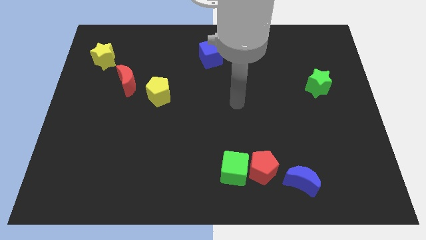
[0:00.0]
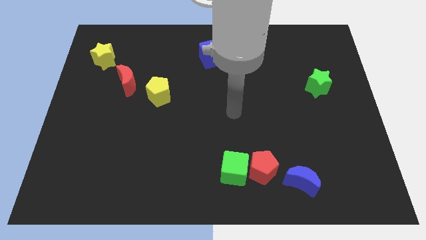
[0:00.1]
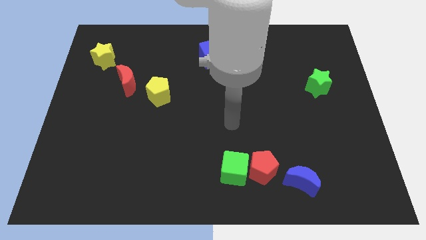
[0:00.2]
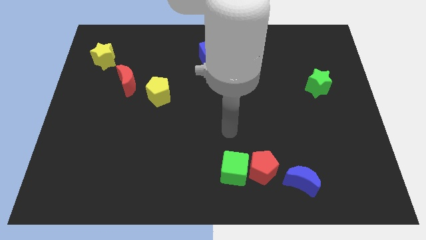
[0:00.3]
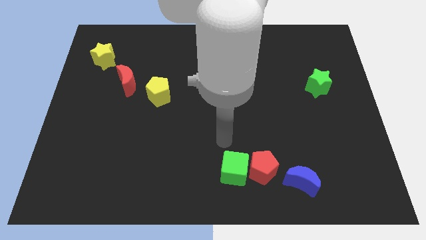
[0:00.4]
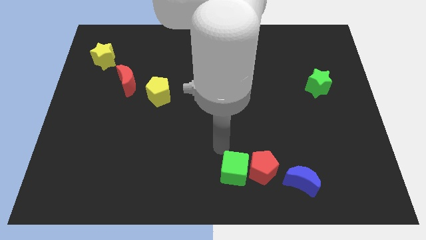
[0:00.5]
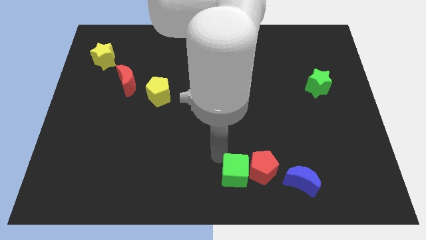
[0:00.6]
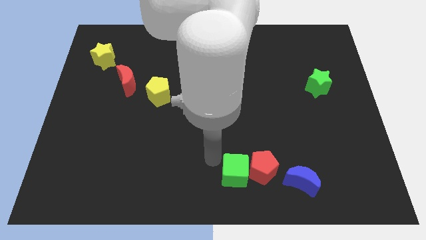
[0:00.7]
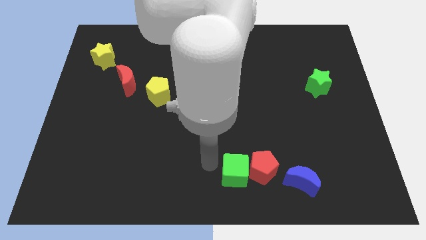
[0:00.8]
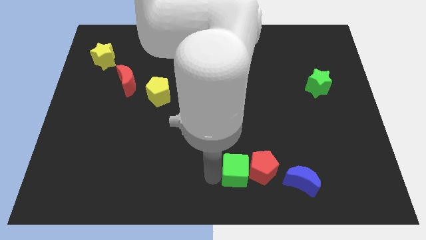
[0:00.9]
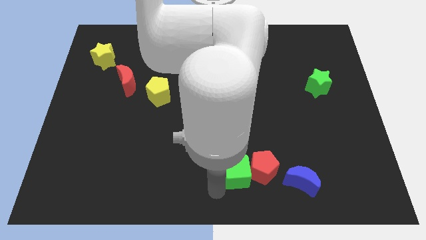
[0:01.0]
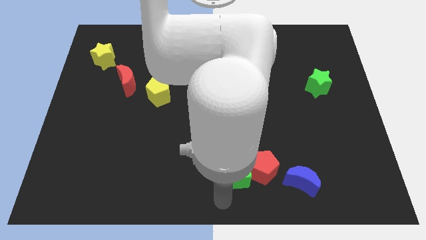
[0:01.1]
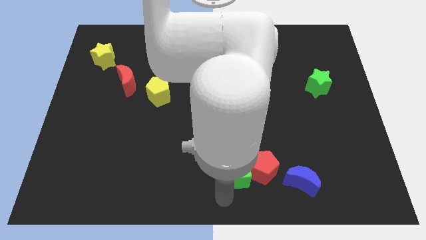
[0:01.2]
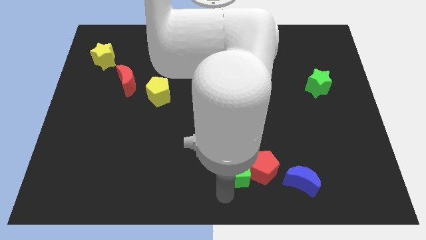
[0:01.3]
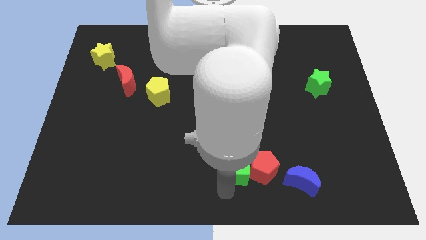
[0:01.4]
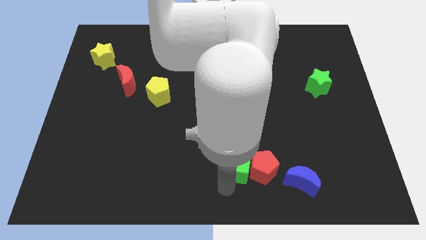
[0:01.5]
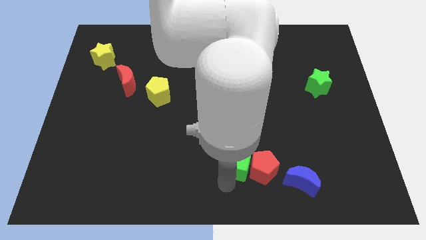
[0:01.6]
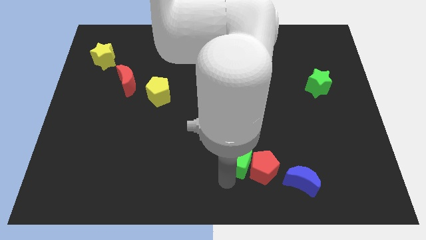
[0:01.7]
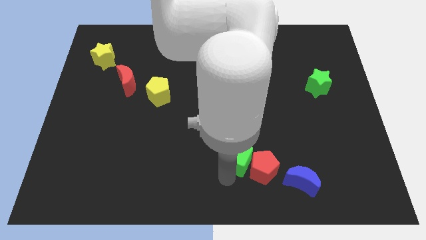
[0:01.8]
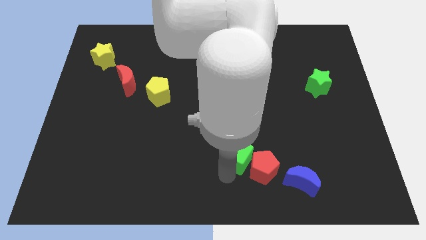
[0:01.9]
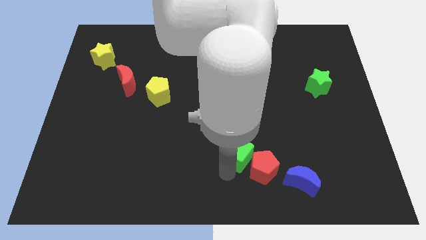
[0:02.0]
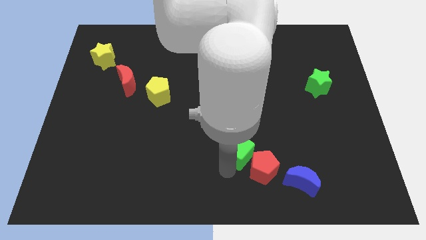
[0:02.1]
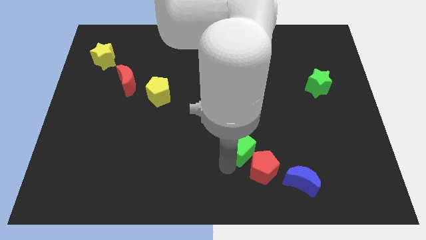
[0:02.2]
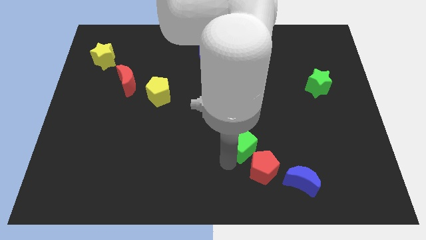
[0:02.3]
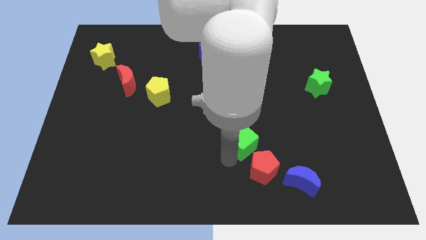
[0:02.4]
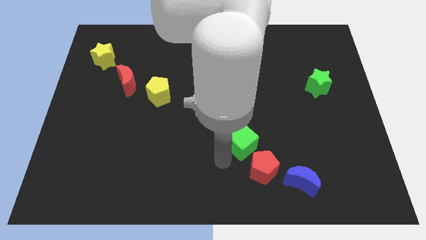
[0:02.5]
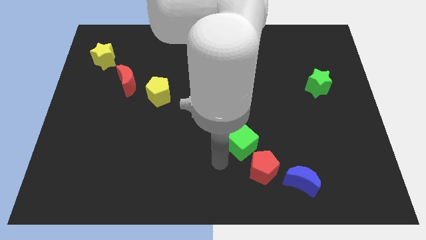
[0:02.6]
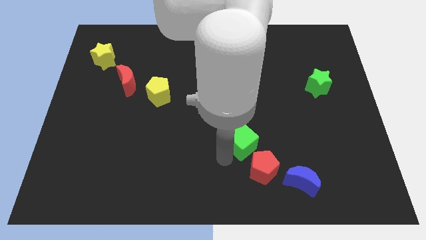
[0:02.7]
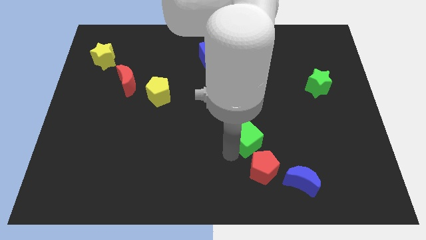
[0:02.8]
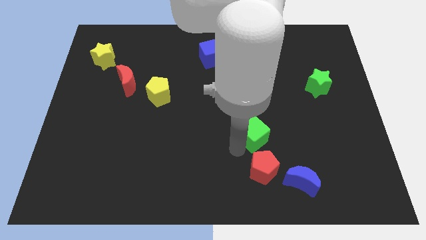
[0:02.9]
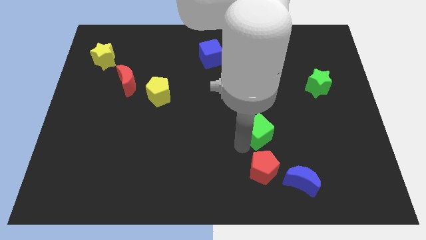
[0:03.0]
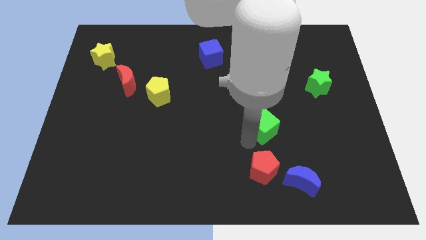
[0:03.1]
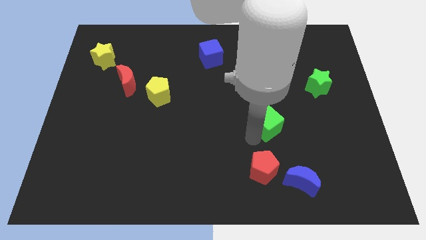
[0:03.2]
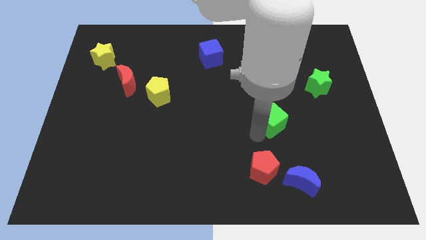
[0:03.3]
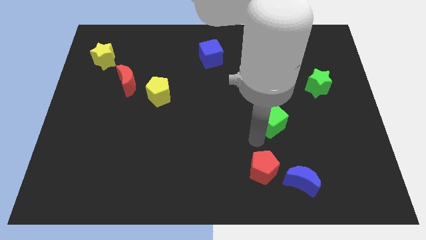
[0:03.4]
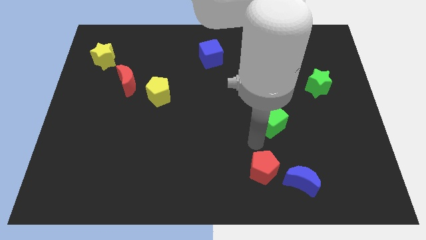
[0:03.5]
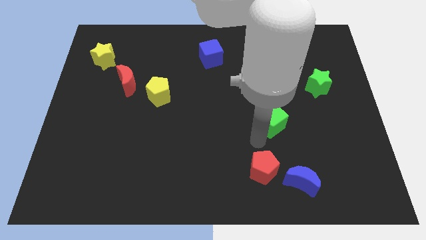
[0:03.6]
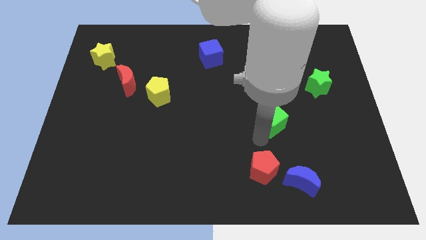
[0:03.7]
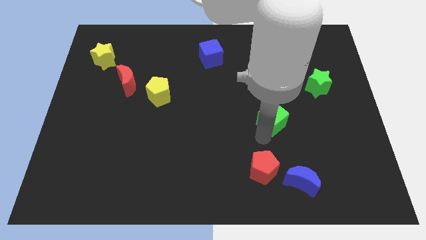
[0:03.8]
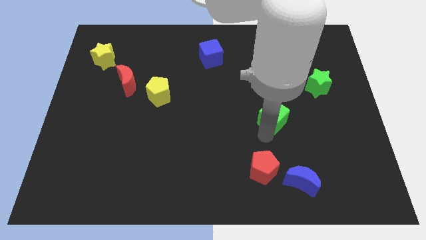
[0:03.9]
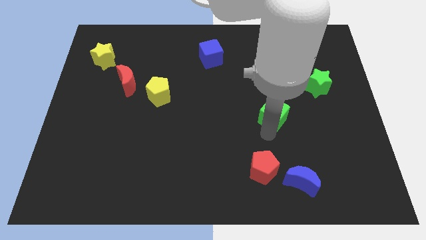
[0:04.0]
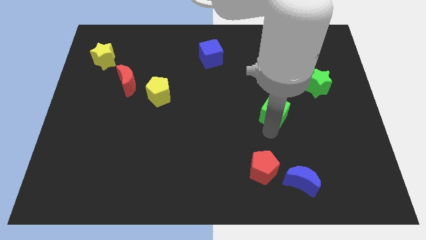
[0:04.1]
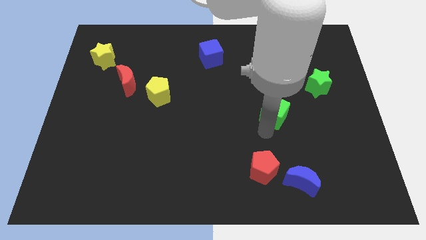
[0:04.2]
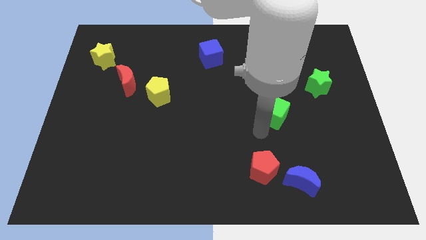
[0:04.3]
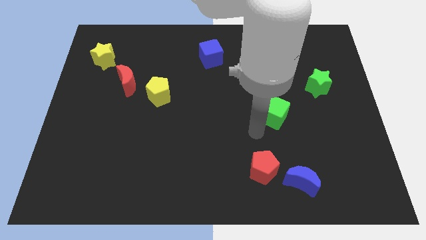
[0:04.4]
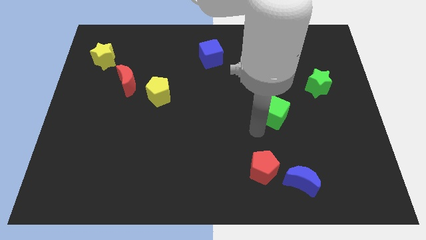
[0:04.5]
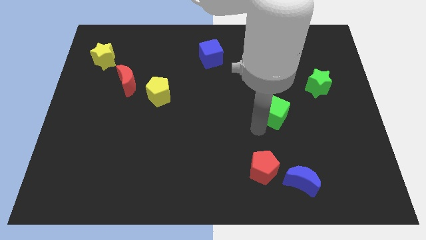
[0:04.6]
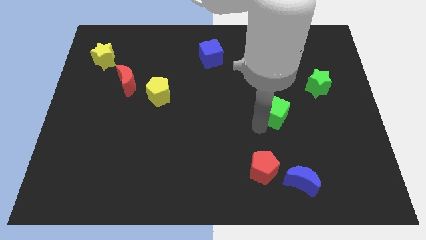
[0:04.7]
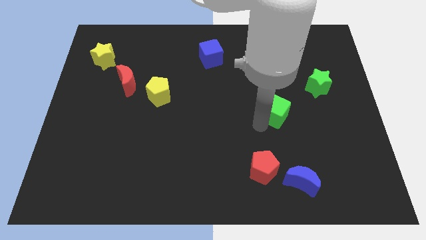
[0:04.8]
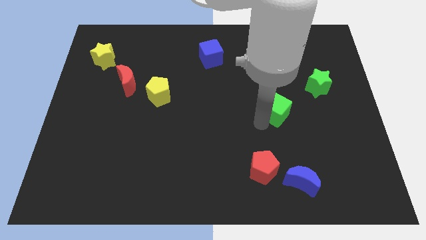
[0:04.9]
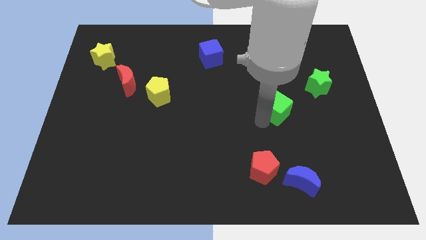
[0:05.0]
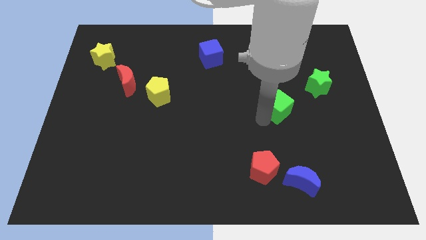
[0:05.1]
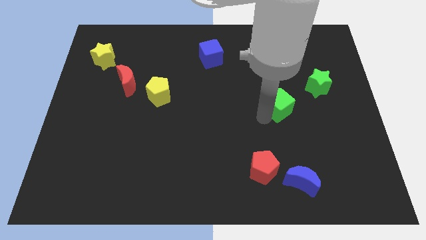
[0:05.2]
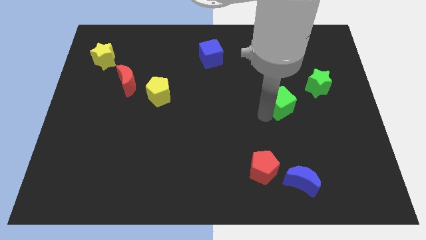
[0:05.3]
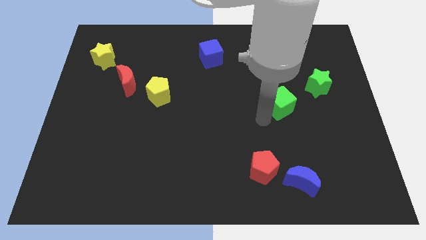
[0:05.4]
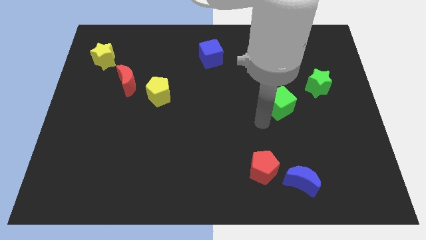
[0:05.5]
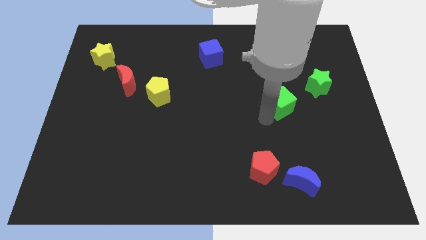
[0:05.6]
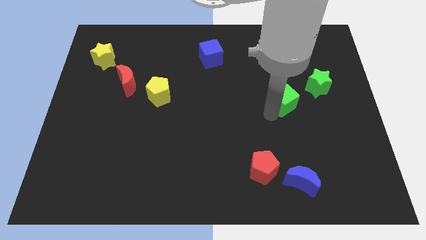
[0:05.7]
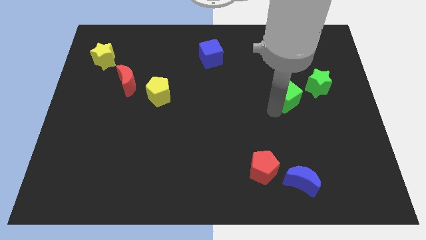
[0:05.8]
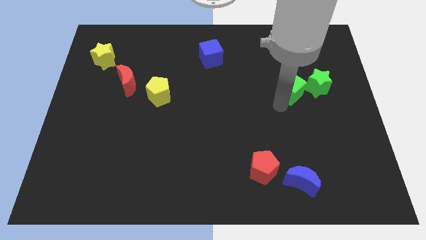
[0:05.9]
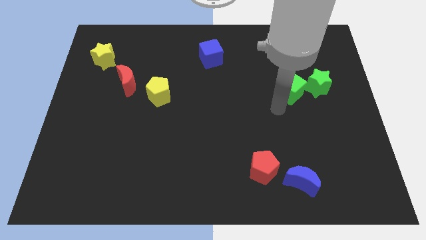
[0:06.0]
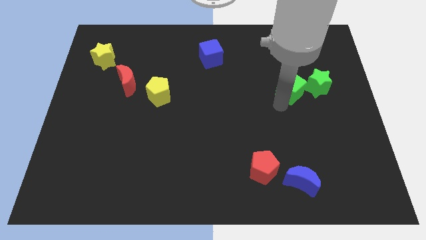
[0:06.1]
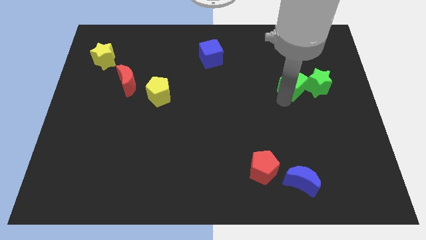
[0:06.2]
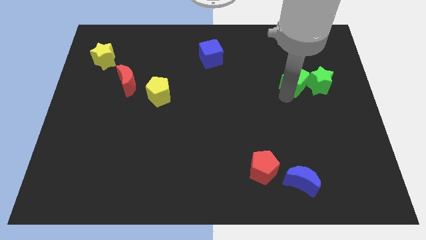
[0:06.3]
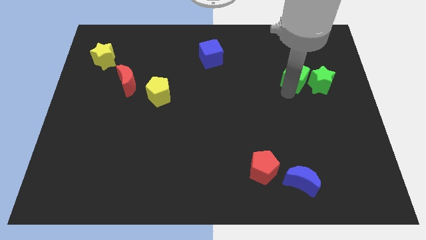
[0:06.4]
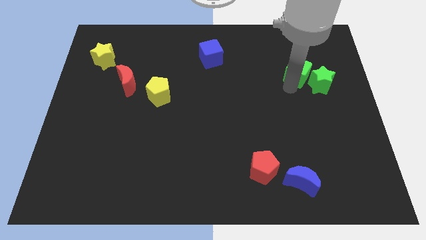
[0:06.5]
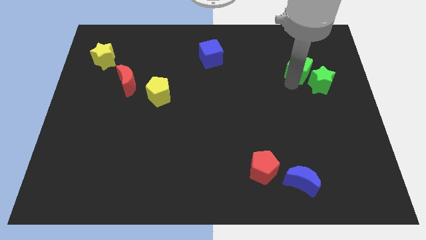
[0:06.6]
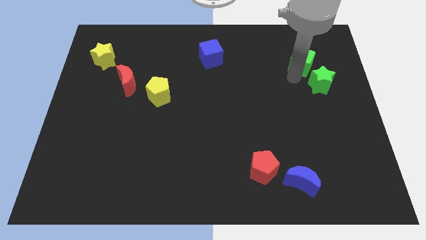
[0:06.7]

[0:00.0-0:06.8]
put the green cube to the top of the green star

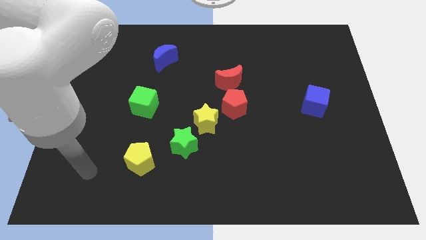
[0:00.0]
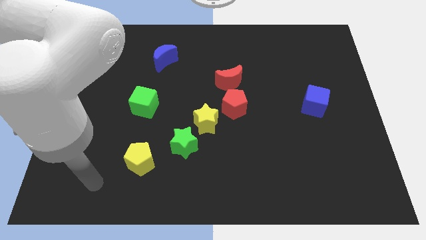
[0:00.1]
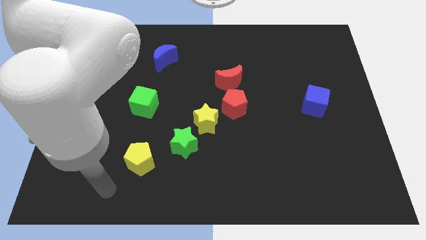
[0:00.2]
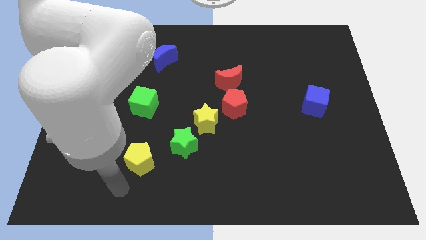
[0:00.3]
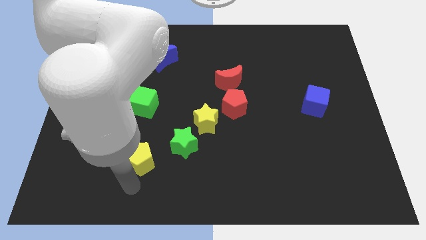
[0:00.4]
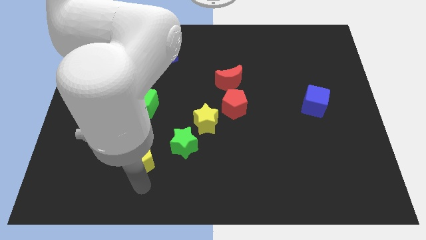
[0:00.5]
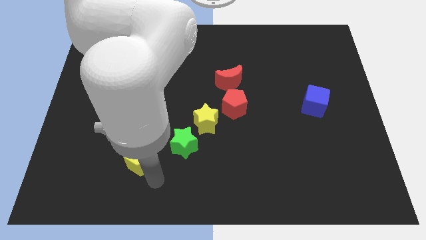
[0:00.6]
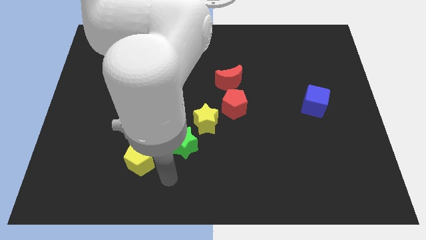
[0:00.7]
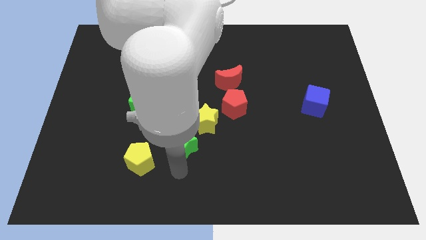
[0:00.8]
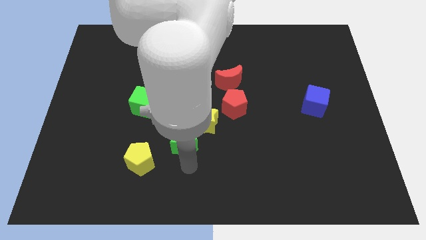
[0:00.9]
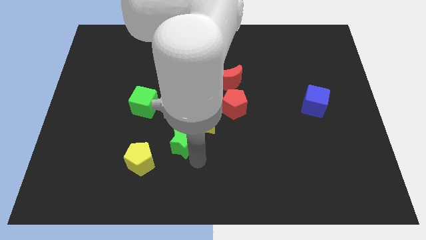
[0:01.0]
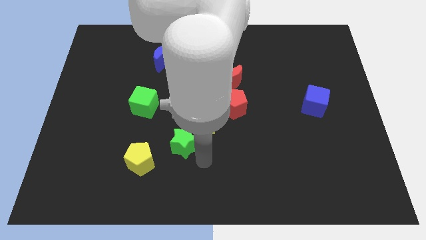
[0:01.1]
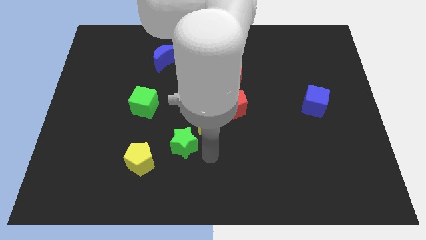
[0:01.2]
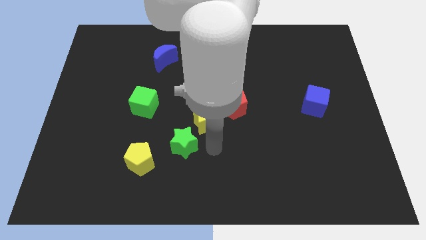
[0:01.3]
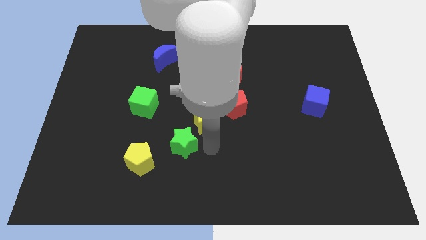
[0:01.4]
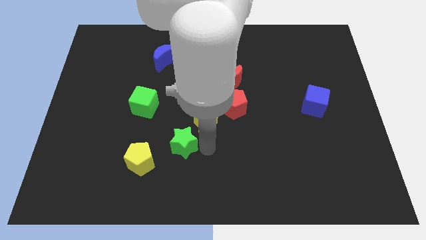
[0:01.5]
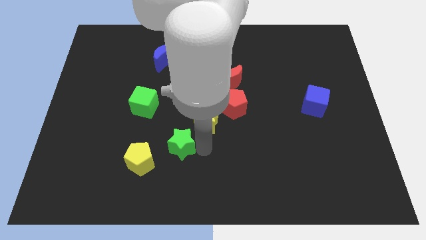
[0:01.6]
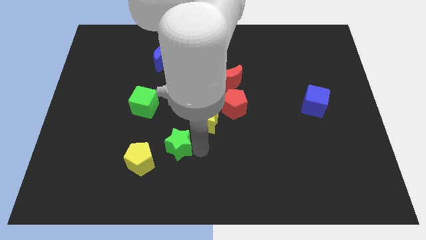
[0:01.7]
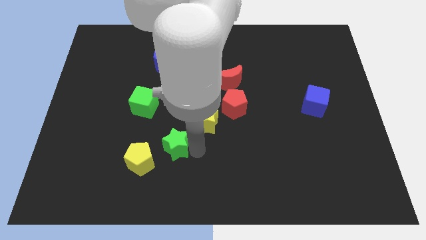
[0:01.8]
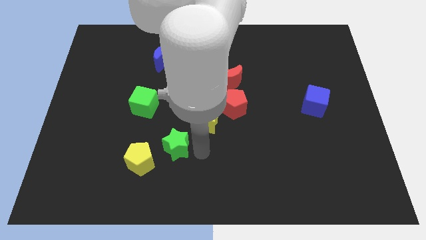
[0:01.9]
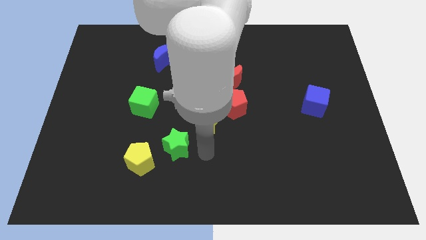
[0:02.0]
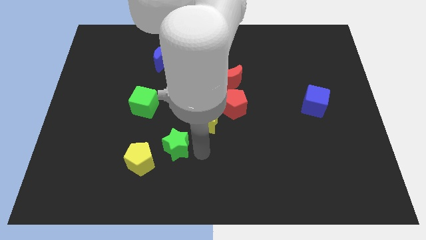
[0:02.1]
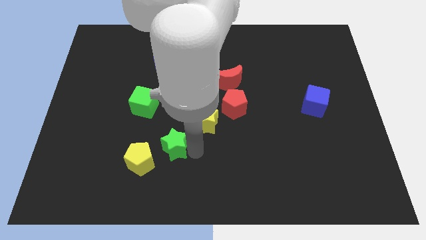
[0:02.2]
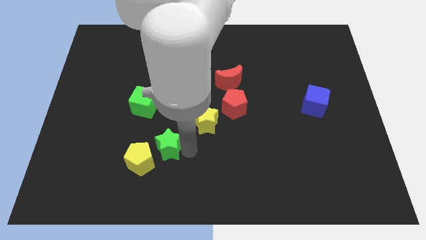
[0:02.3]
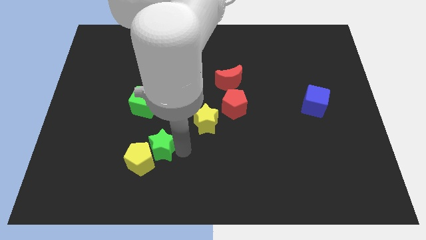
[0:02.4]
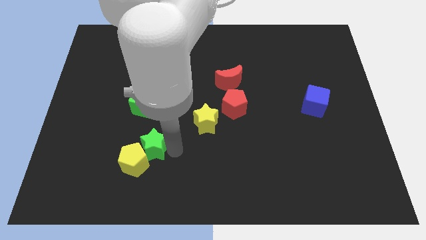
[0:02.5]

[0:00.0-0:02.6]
push the green star below the green cube
